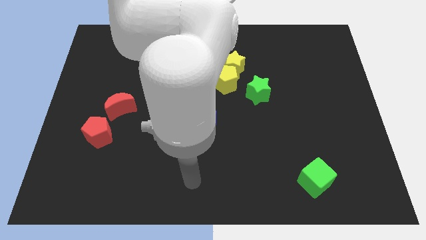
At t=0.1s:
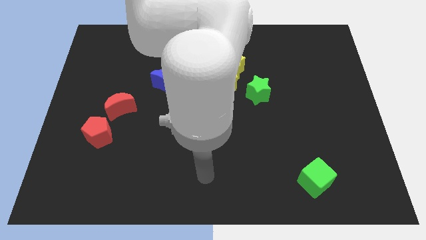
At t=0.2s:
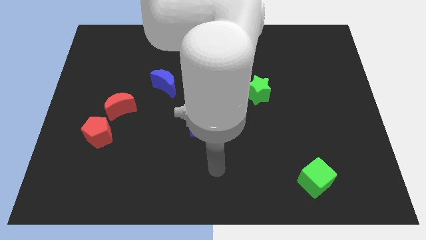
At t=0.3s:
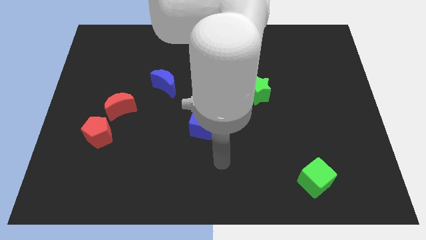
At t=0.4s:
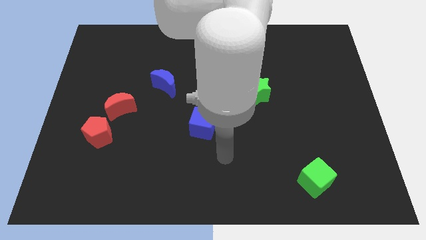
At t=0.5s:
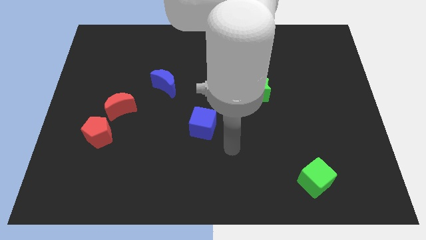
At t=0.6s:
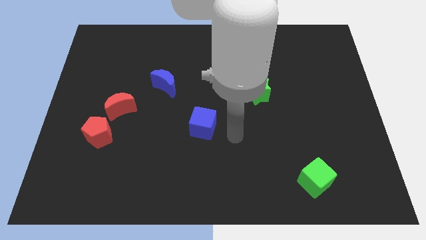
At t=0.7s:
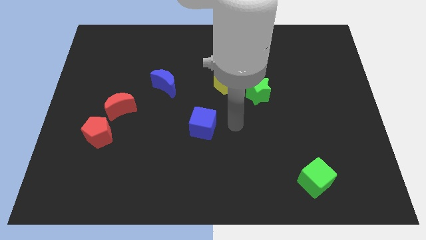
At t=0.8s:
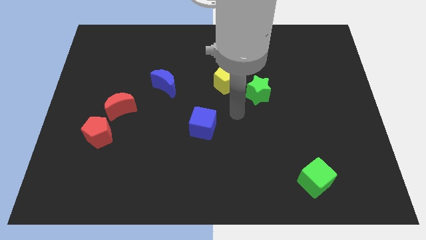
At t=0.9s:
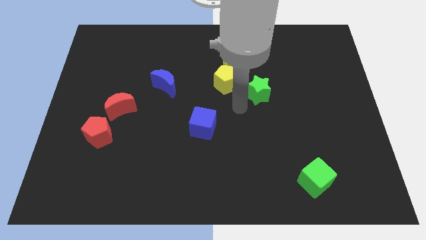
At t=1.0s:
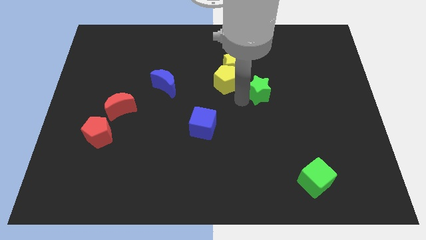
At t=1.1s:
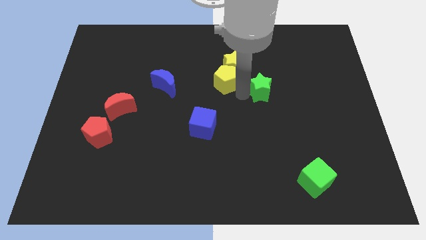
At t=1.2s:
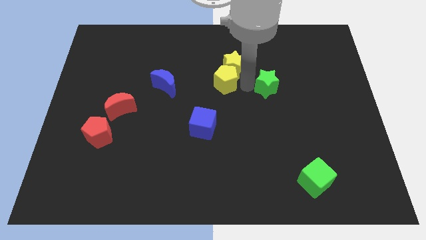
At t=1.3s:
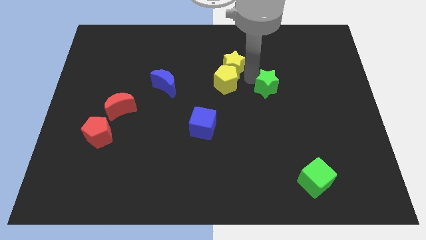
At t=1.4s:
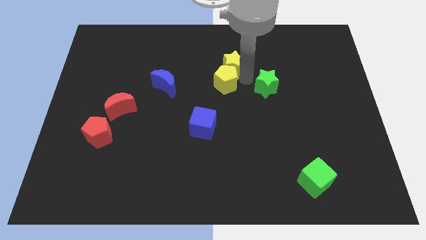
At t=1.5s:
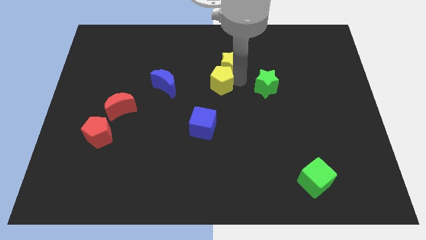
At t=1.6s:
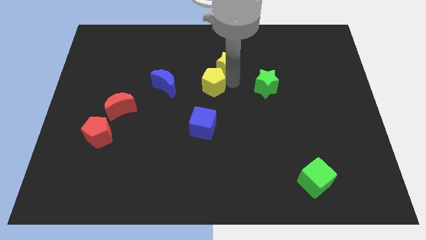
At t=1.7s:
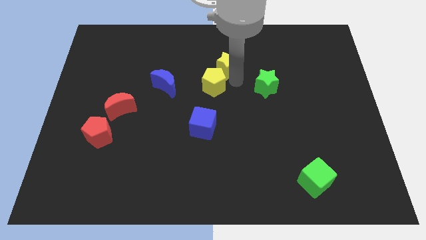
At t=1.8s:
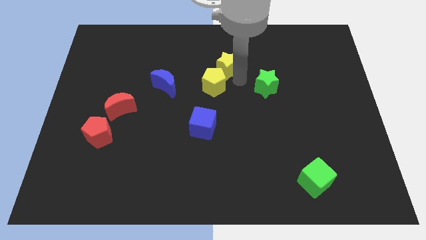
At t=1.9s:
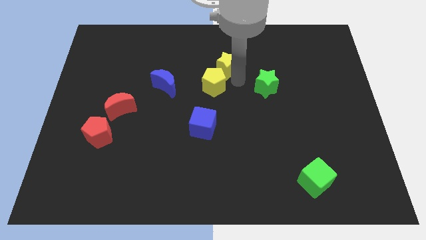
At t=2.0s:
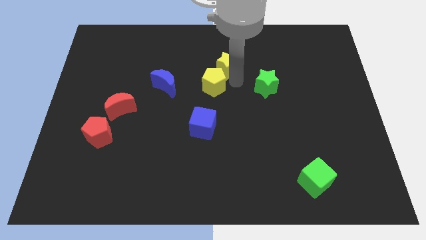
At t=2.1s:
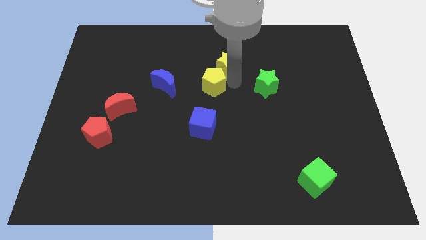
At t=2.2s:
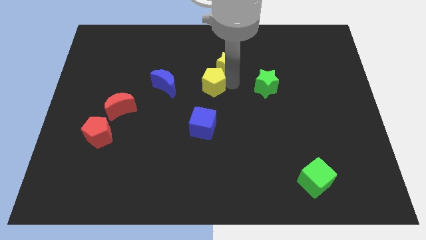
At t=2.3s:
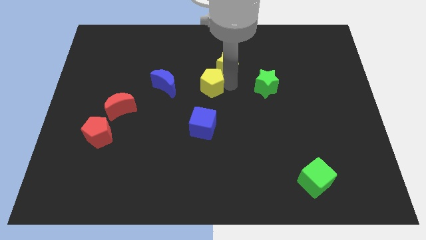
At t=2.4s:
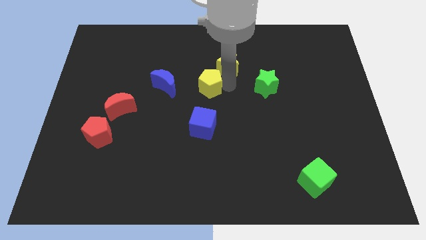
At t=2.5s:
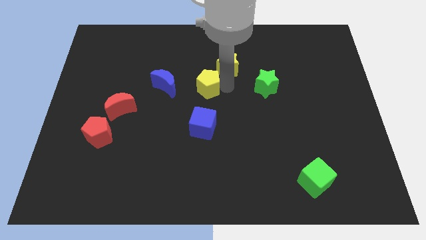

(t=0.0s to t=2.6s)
separate the yellow pentagon from the yellow star and green star

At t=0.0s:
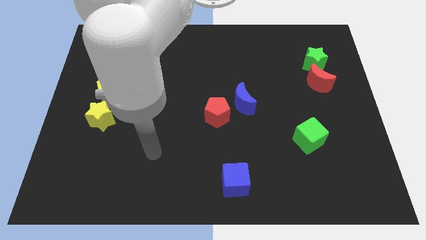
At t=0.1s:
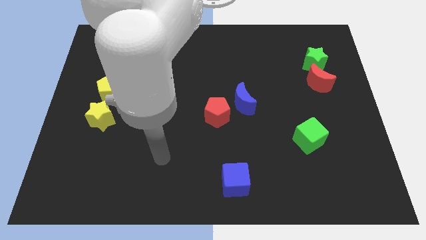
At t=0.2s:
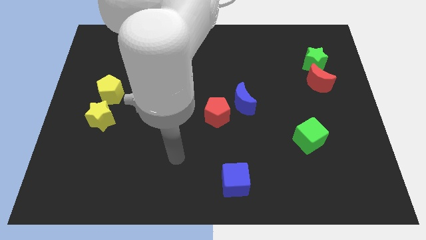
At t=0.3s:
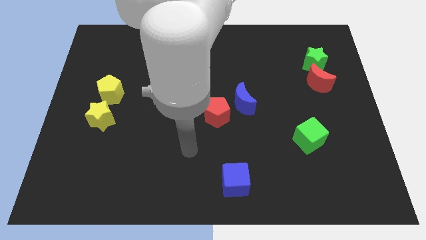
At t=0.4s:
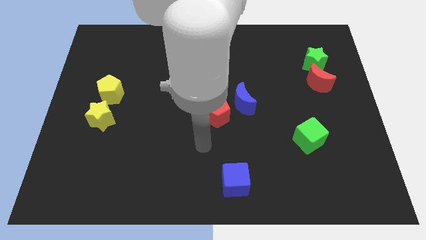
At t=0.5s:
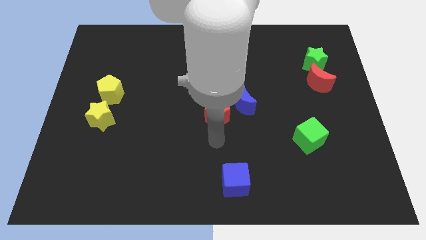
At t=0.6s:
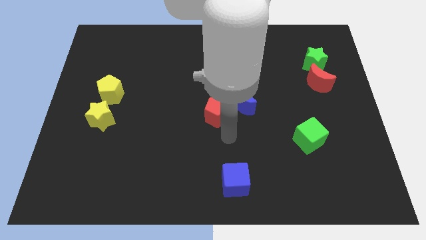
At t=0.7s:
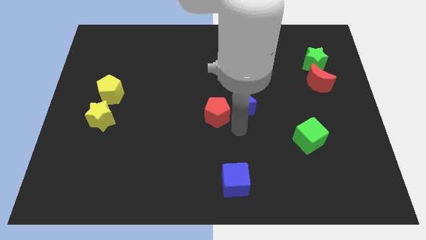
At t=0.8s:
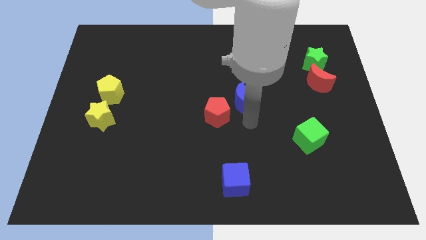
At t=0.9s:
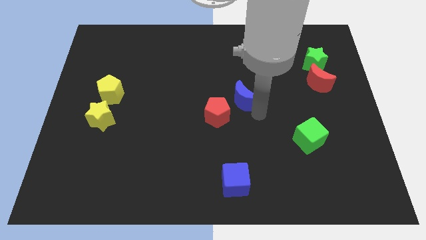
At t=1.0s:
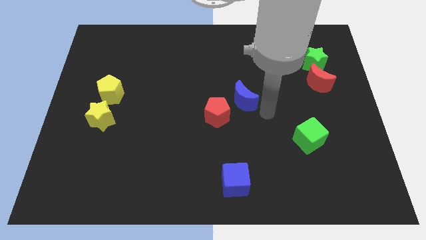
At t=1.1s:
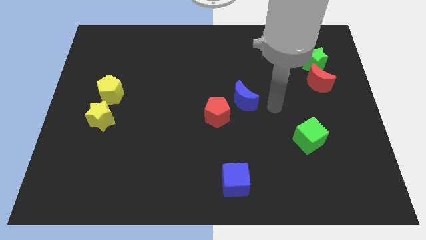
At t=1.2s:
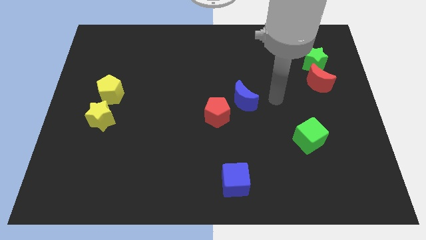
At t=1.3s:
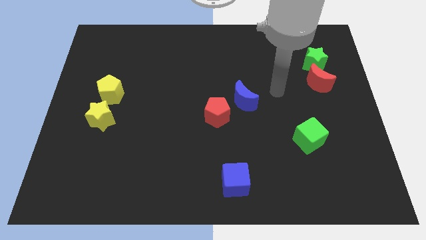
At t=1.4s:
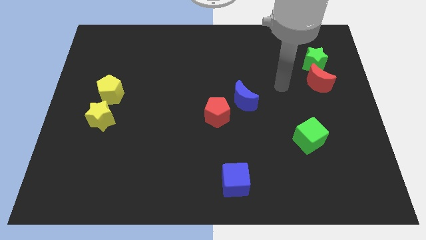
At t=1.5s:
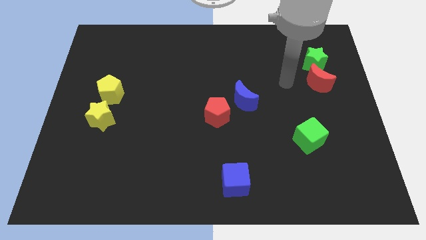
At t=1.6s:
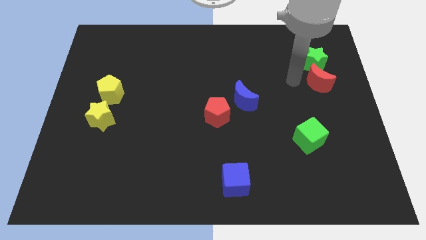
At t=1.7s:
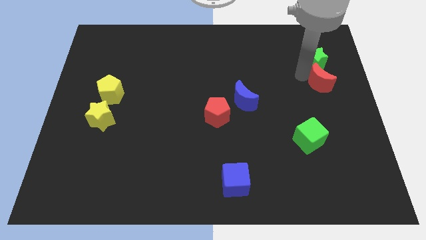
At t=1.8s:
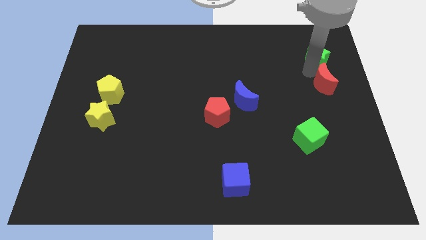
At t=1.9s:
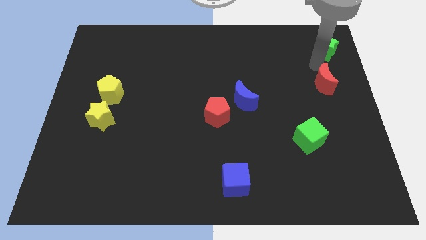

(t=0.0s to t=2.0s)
move the red moon away from the green star

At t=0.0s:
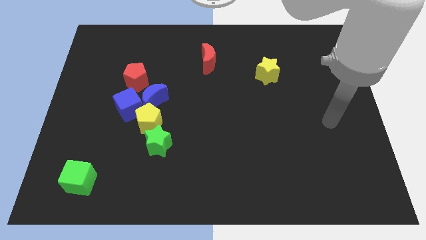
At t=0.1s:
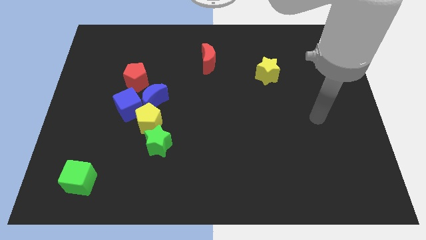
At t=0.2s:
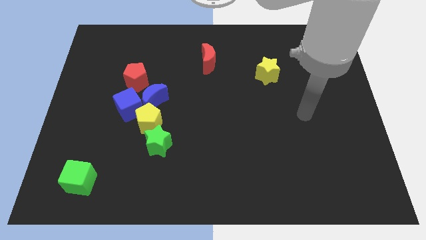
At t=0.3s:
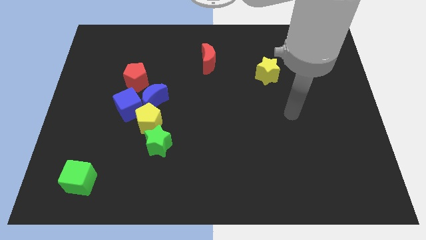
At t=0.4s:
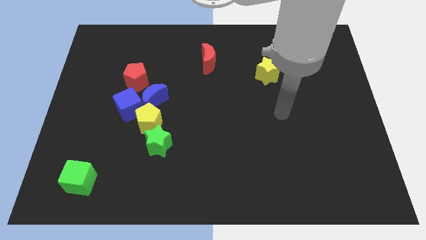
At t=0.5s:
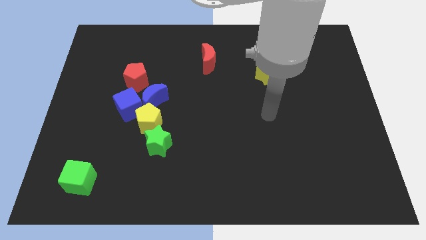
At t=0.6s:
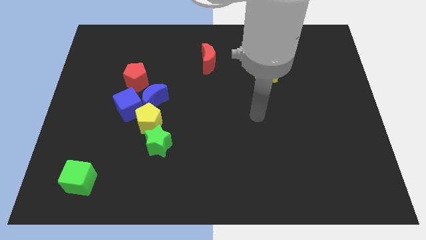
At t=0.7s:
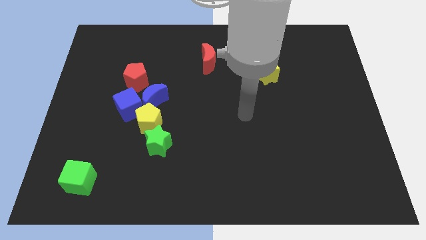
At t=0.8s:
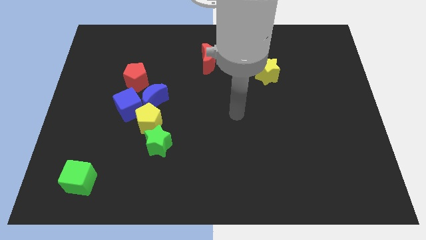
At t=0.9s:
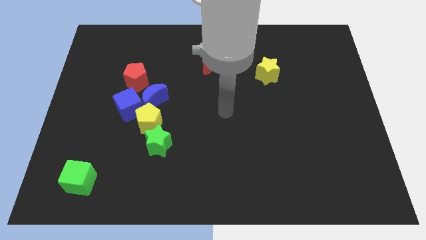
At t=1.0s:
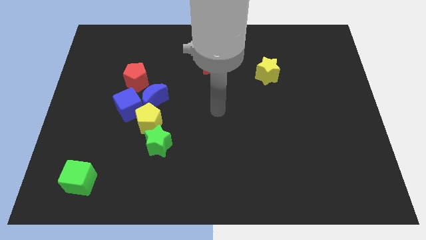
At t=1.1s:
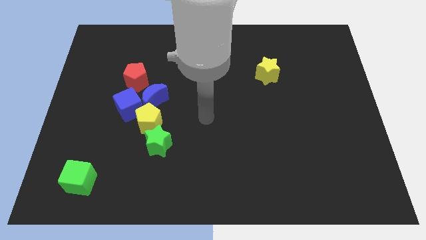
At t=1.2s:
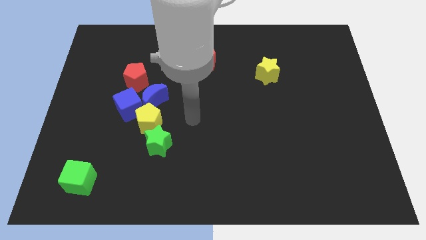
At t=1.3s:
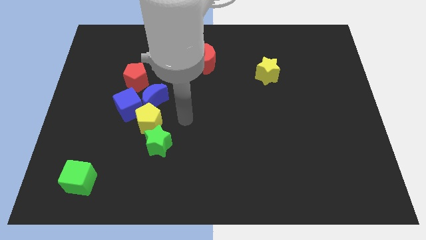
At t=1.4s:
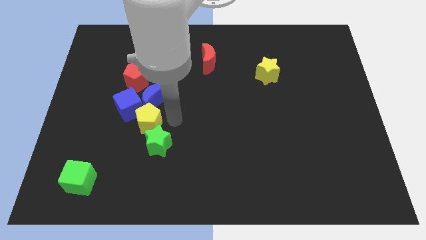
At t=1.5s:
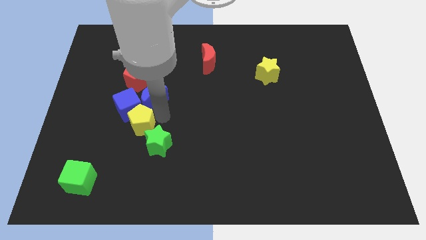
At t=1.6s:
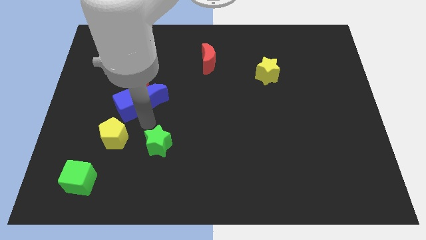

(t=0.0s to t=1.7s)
pull the green star apart from the yellow pentagon

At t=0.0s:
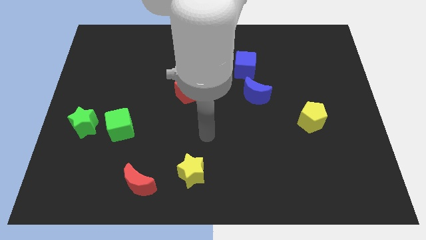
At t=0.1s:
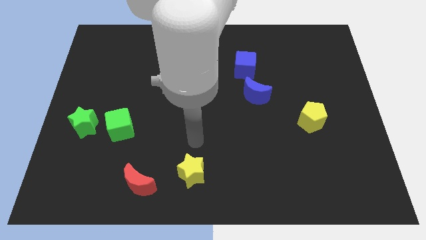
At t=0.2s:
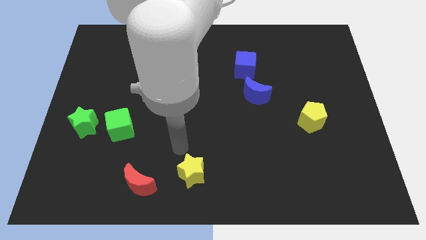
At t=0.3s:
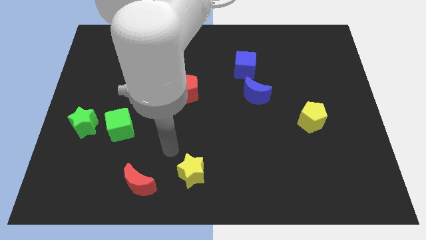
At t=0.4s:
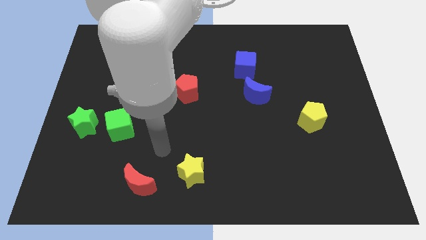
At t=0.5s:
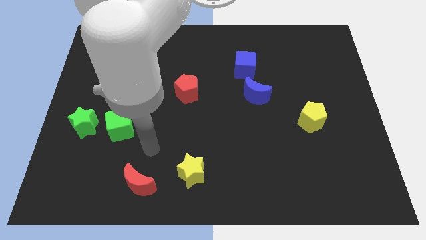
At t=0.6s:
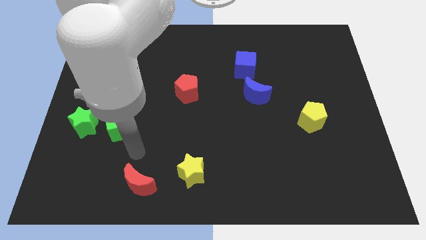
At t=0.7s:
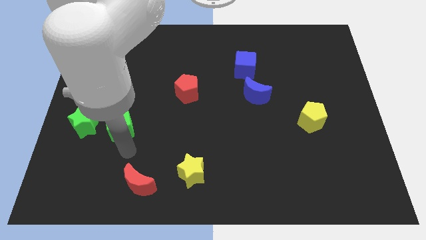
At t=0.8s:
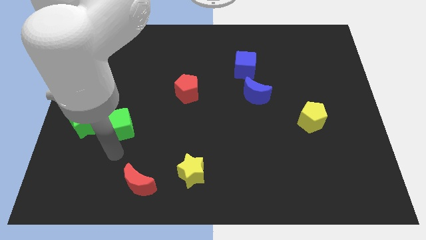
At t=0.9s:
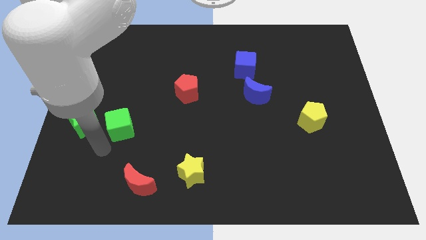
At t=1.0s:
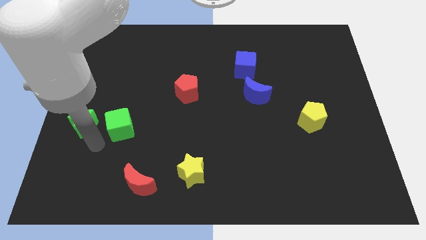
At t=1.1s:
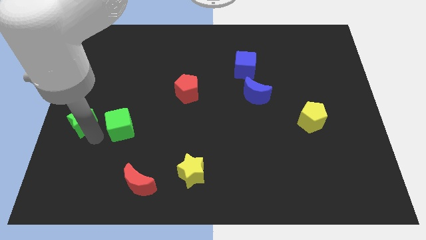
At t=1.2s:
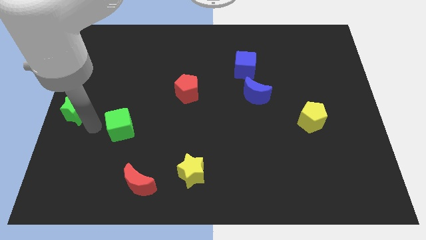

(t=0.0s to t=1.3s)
separate the green cube from the green star

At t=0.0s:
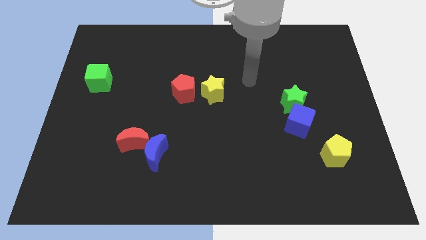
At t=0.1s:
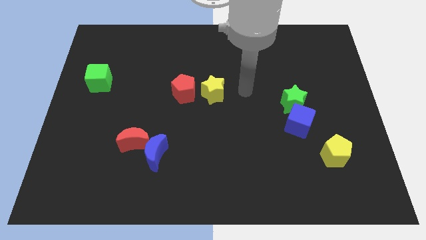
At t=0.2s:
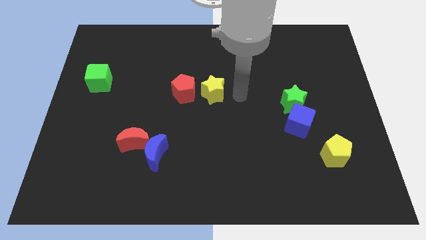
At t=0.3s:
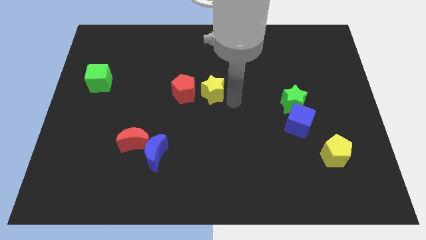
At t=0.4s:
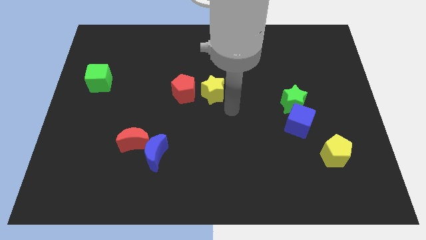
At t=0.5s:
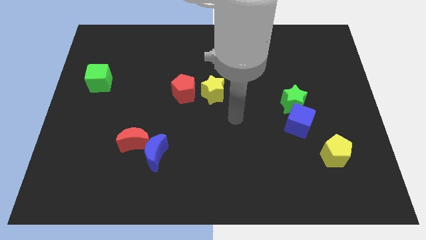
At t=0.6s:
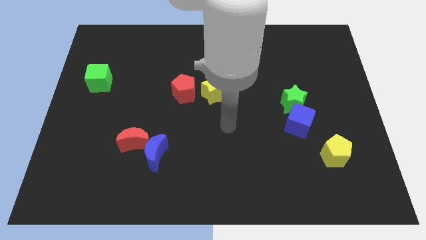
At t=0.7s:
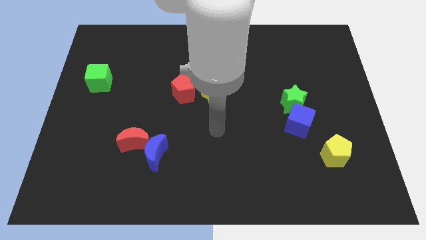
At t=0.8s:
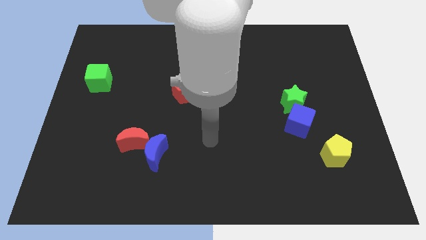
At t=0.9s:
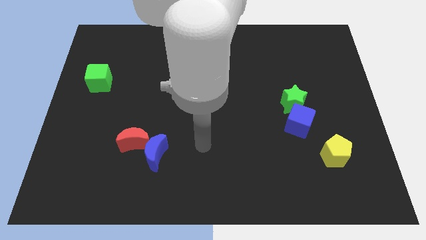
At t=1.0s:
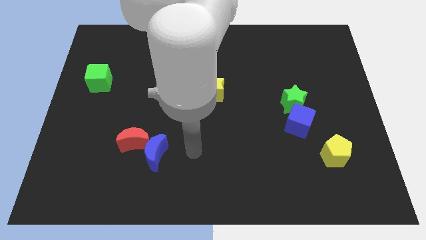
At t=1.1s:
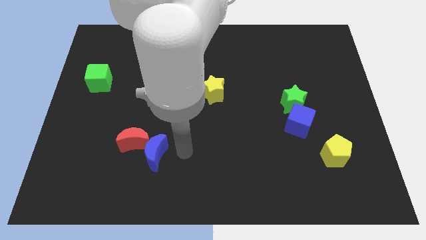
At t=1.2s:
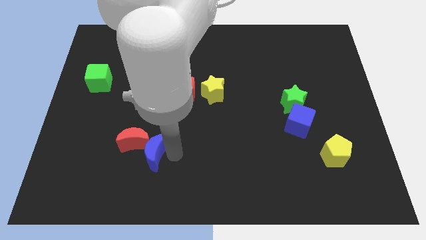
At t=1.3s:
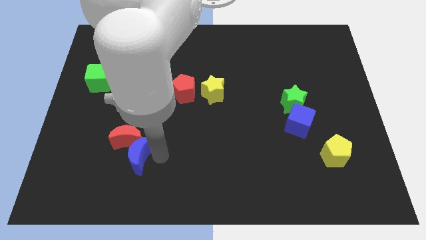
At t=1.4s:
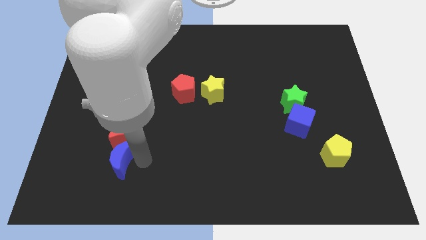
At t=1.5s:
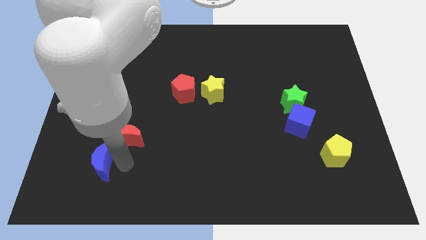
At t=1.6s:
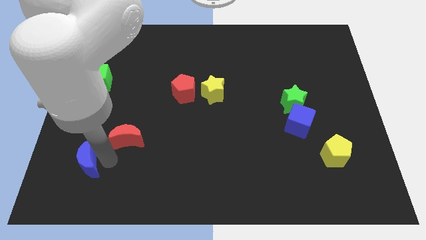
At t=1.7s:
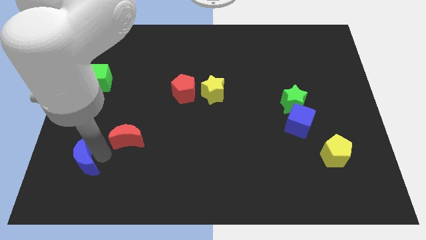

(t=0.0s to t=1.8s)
pull the red moon apart from the blue moon
